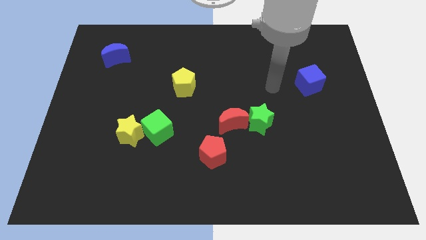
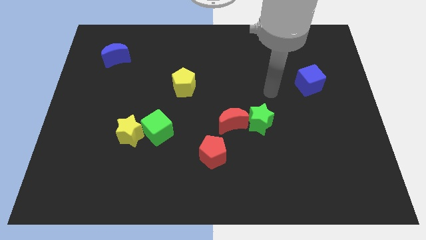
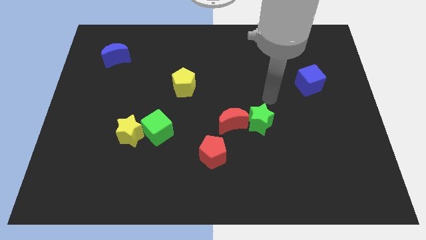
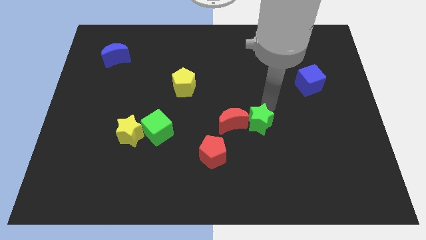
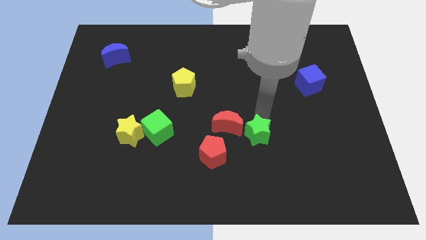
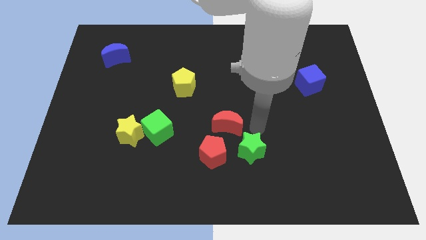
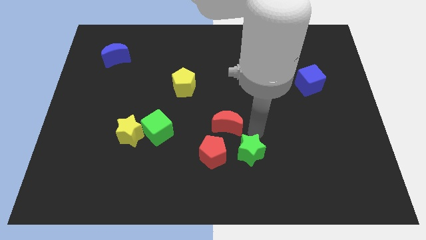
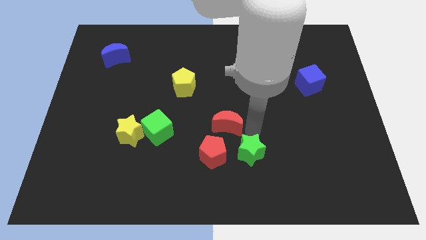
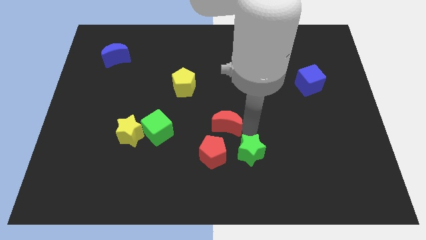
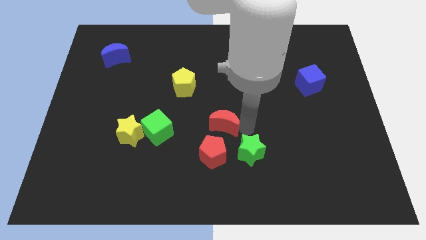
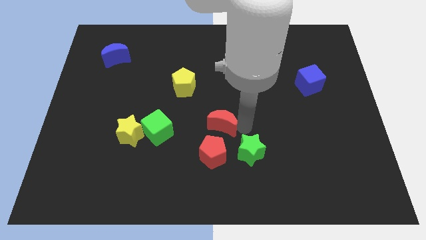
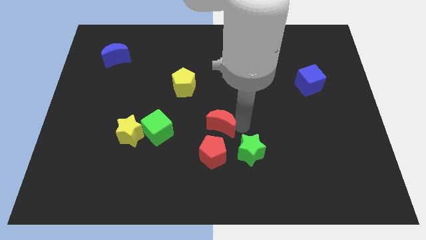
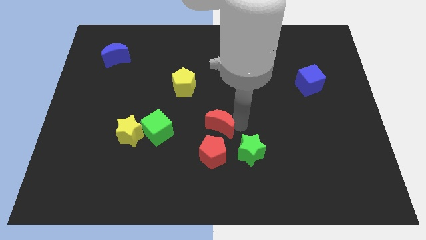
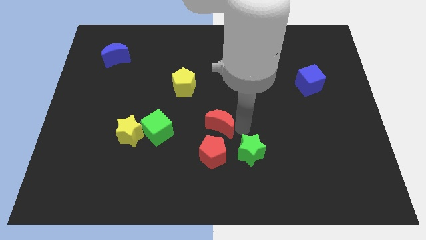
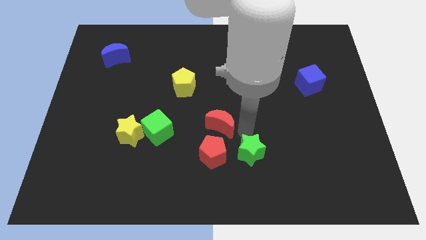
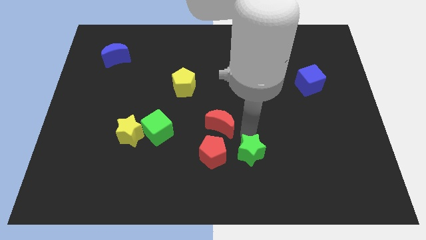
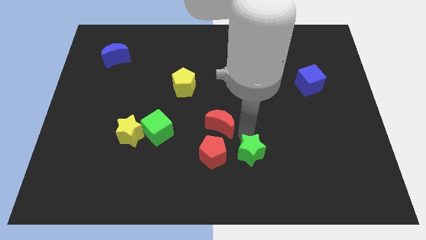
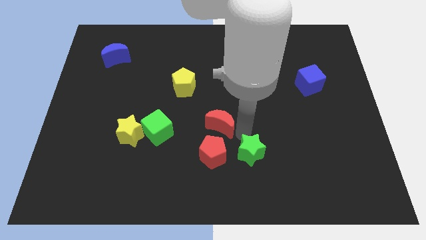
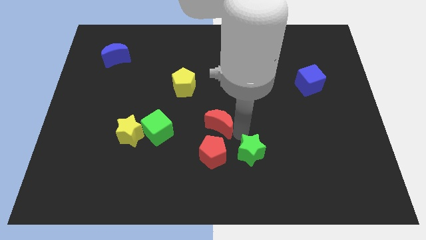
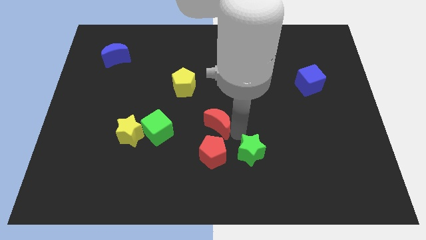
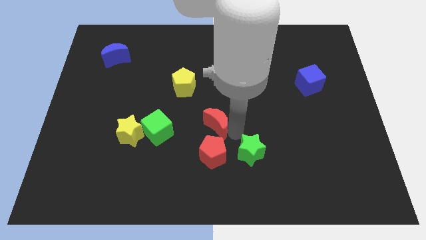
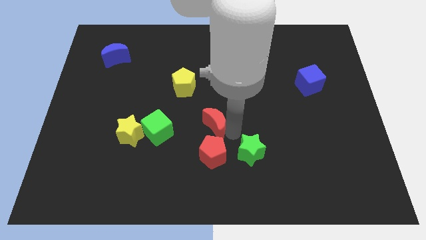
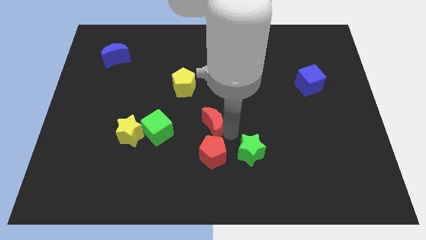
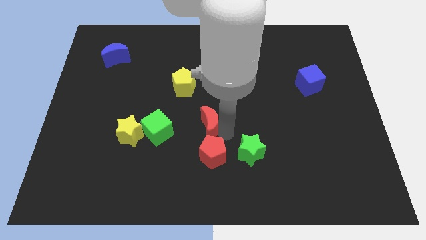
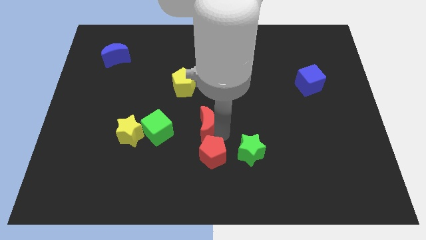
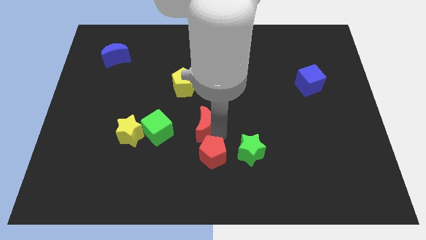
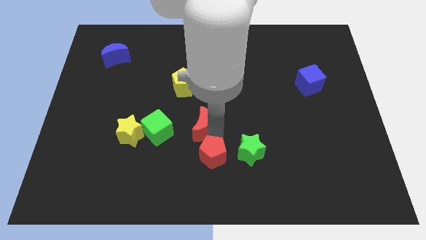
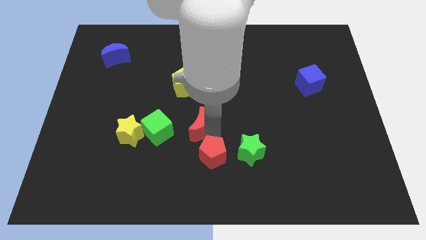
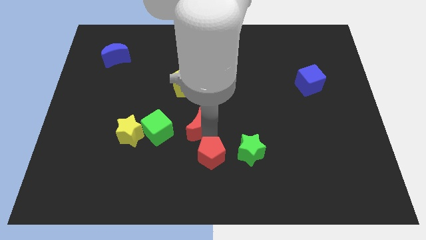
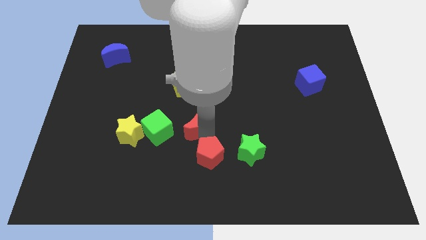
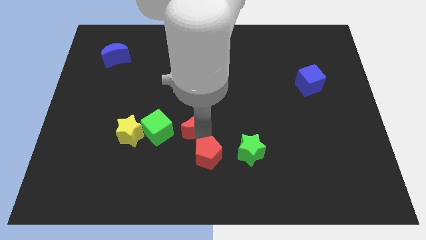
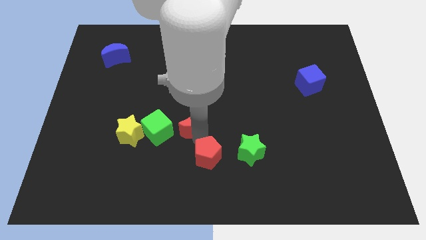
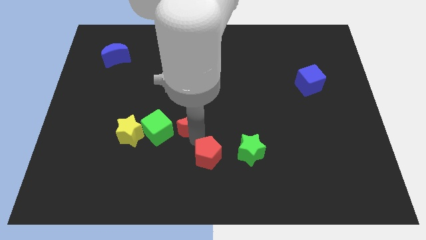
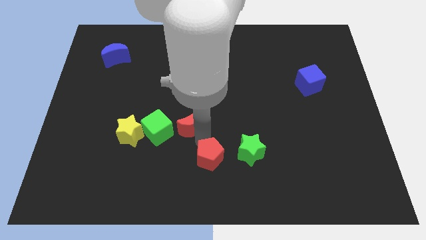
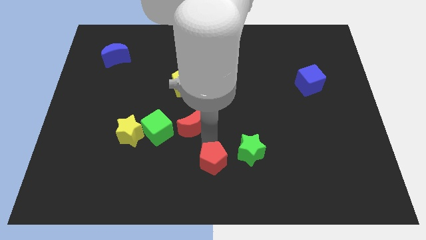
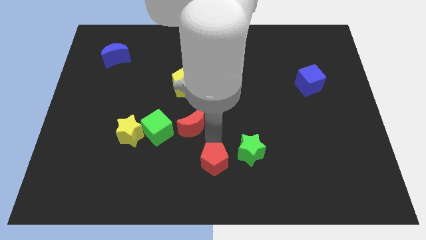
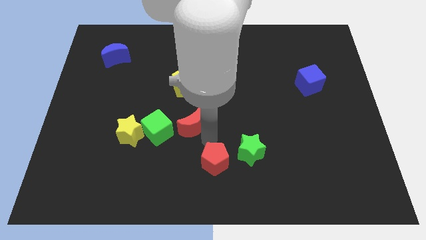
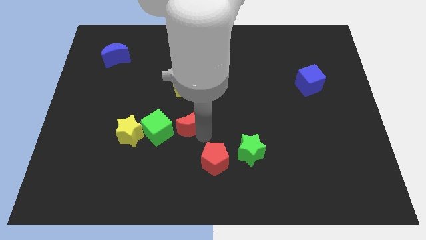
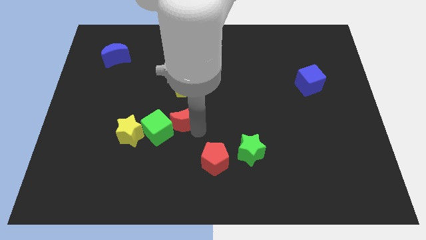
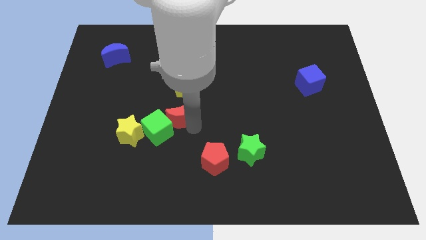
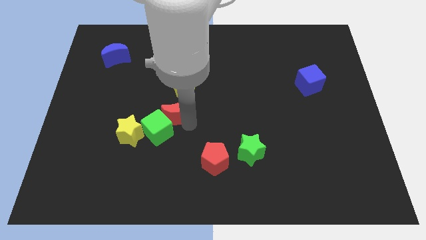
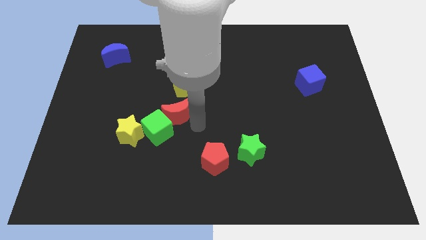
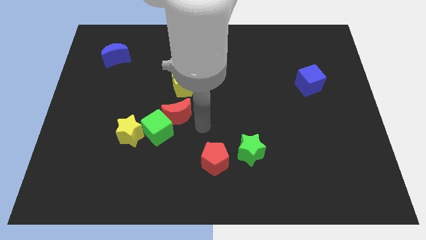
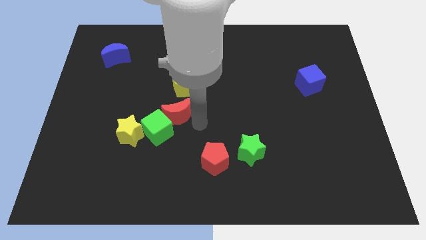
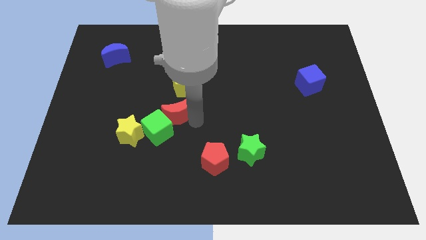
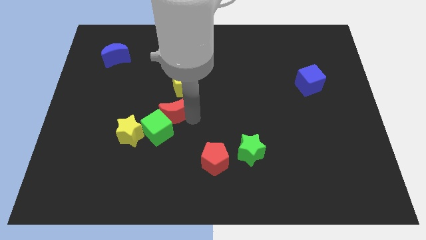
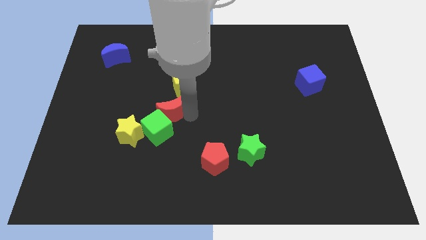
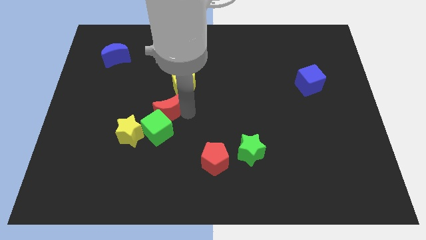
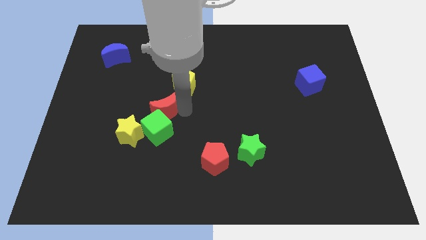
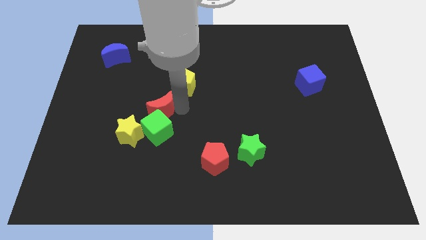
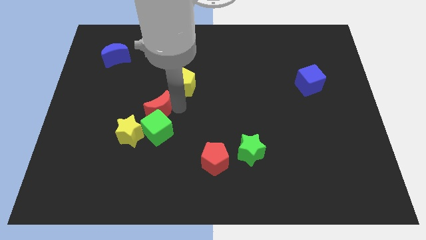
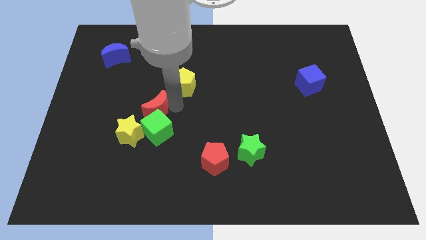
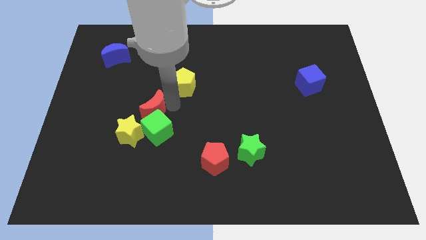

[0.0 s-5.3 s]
push the red moon above the yellow star

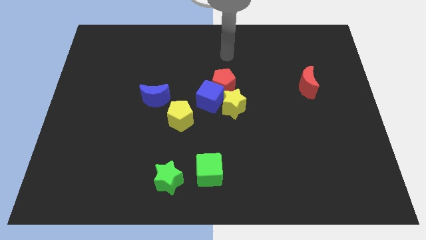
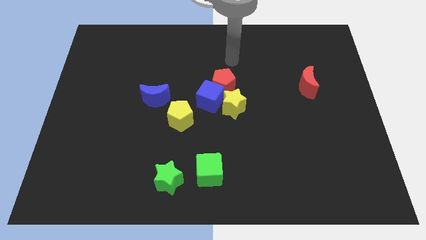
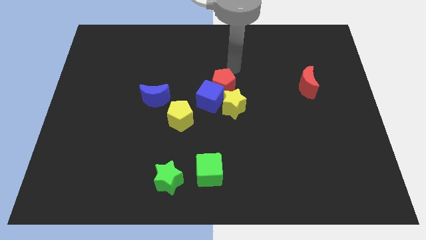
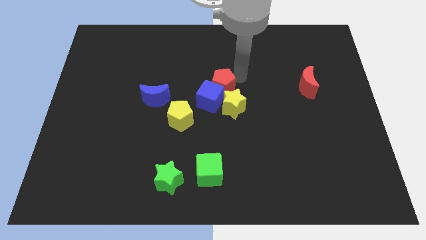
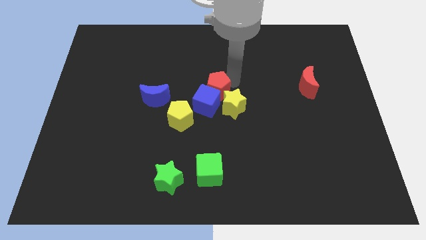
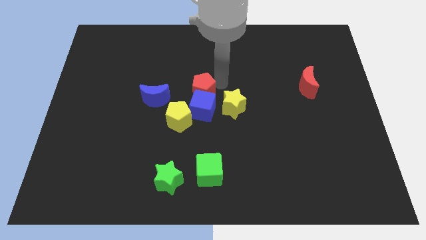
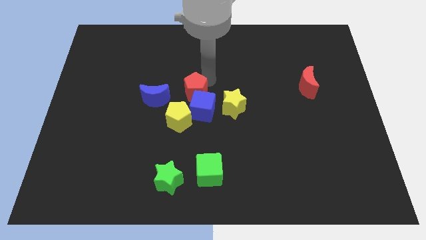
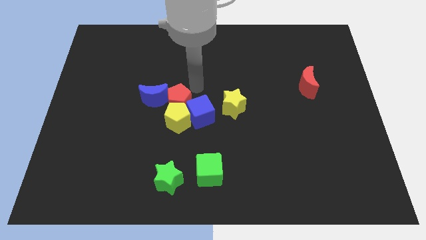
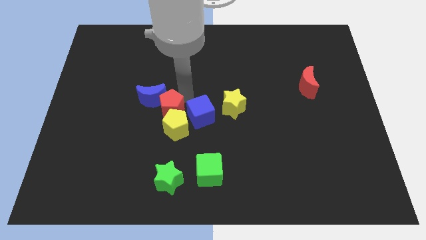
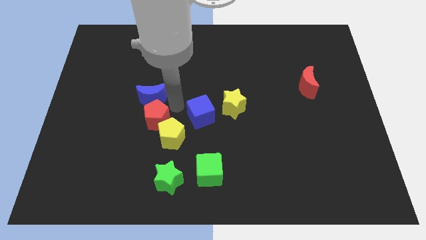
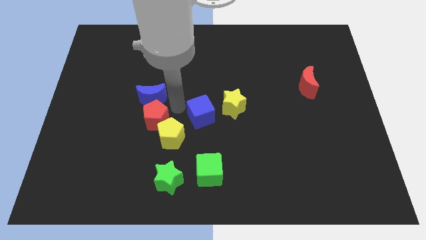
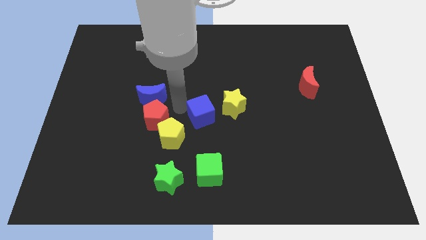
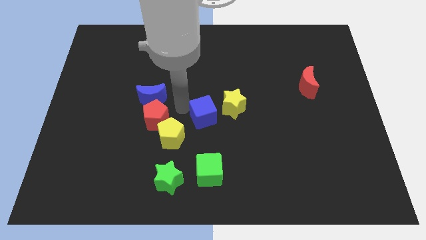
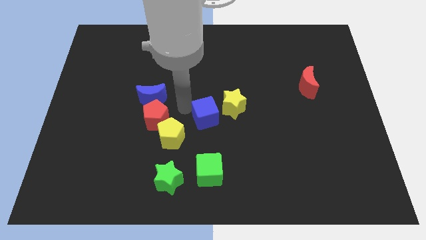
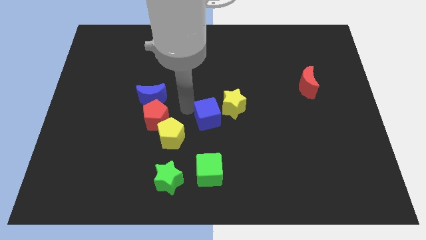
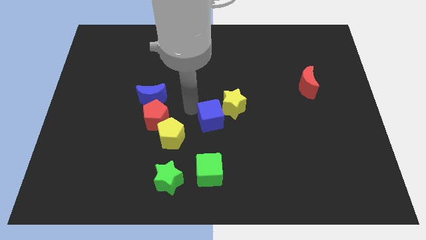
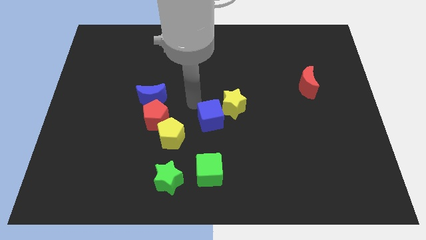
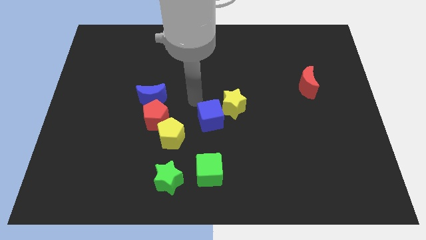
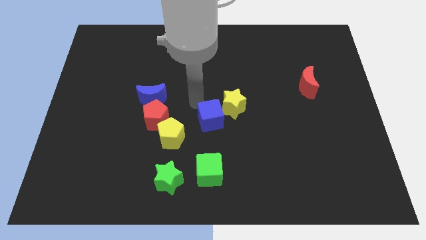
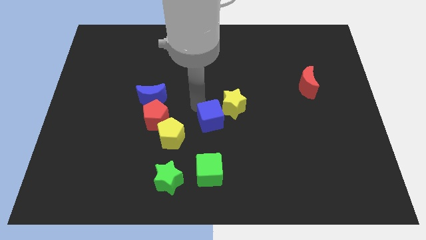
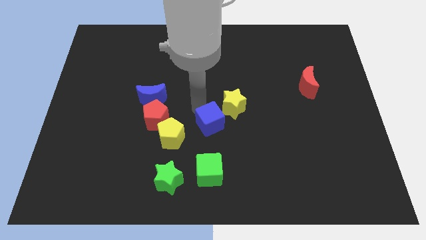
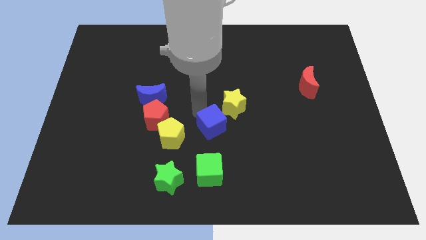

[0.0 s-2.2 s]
put the blue cube to the bottom of the yellow star
